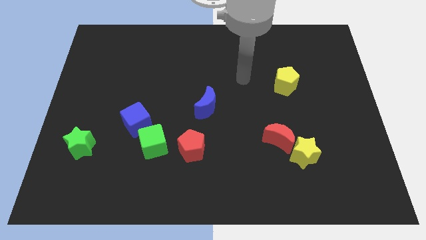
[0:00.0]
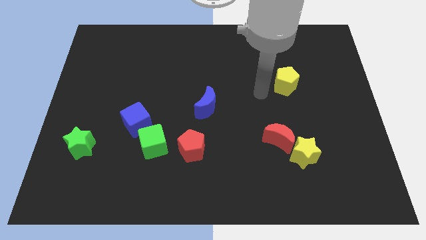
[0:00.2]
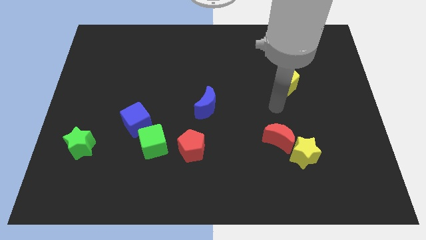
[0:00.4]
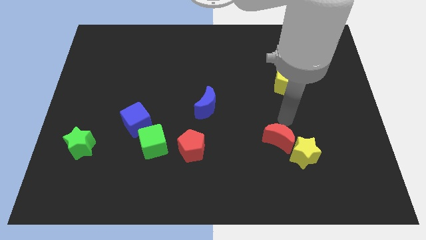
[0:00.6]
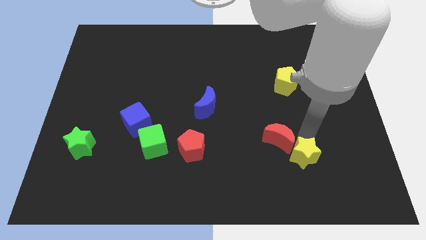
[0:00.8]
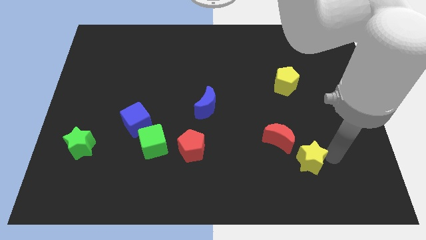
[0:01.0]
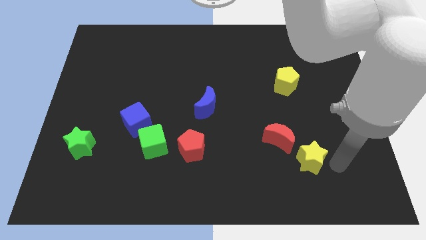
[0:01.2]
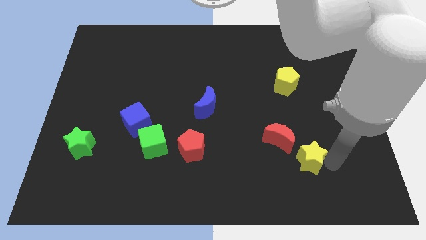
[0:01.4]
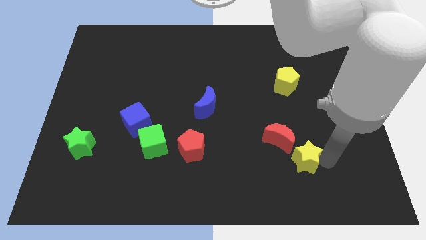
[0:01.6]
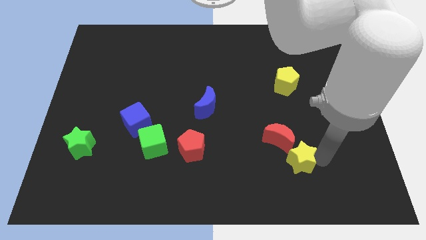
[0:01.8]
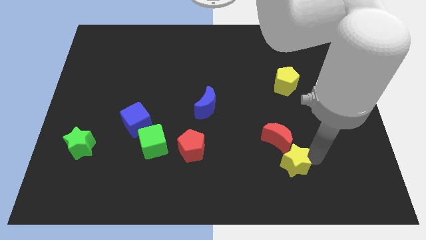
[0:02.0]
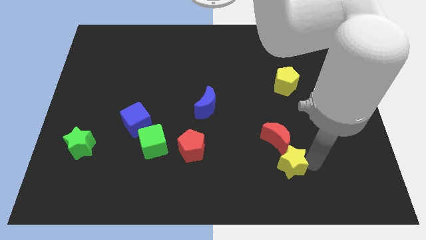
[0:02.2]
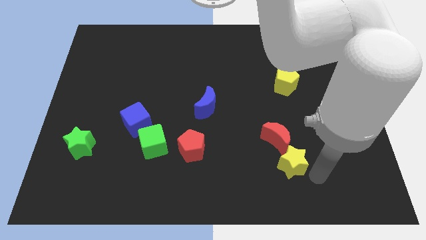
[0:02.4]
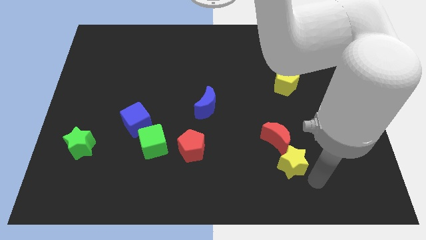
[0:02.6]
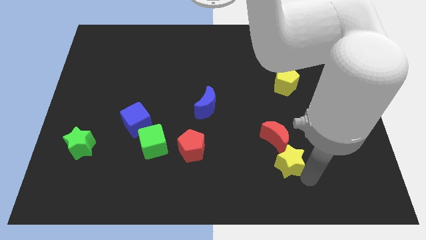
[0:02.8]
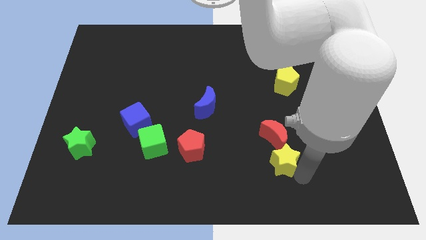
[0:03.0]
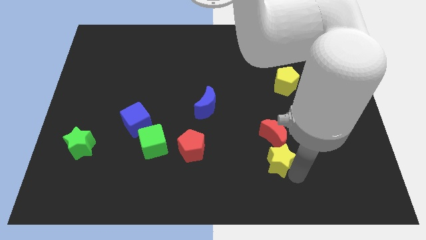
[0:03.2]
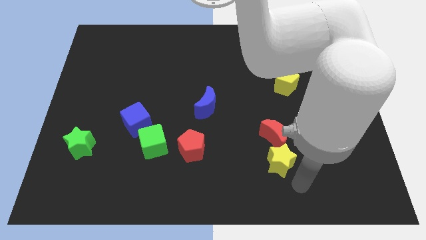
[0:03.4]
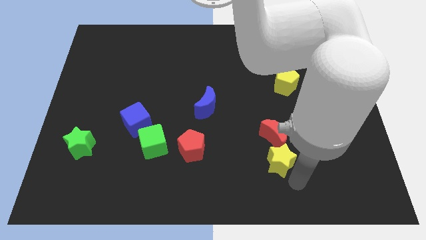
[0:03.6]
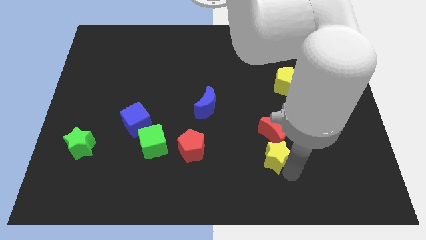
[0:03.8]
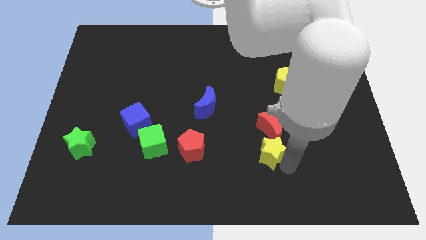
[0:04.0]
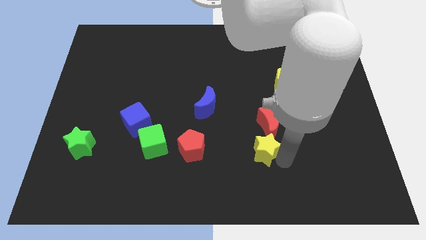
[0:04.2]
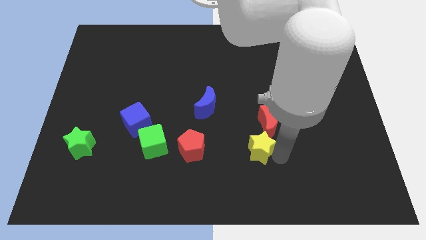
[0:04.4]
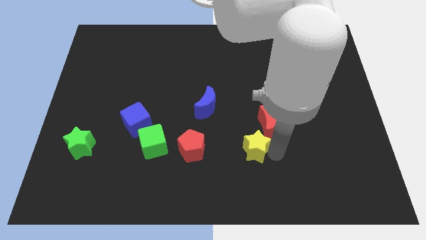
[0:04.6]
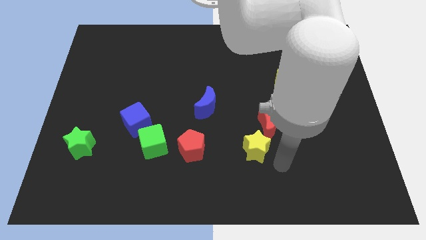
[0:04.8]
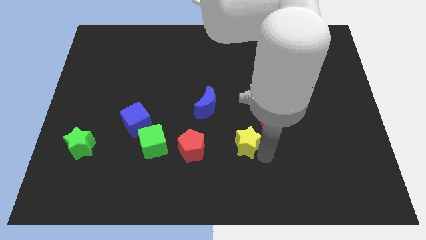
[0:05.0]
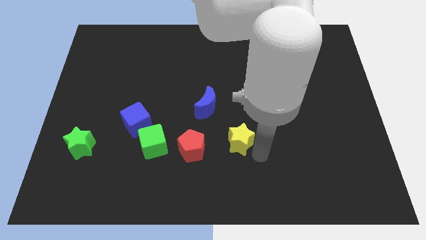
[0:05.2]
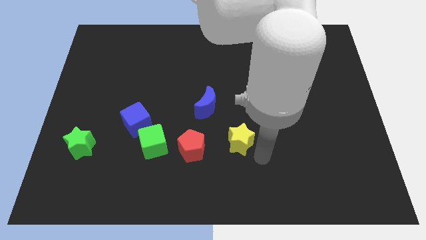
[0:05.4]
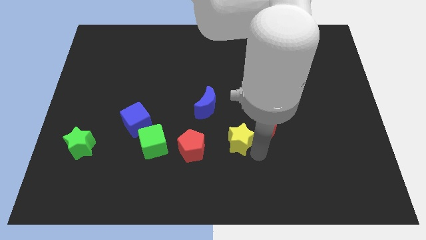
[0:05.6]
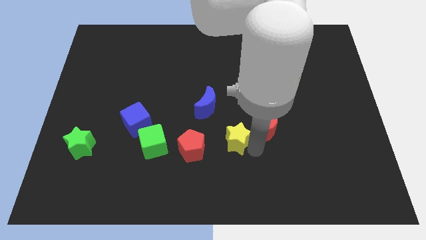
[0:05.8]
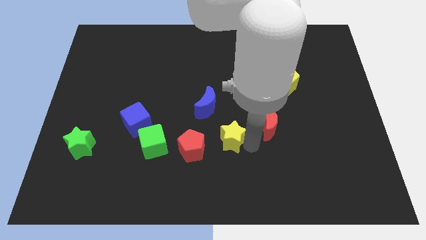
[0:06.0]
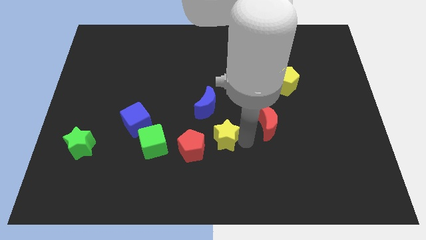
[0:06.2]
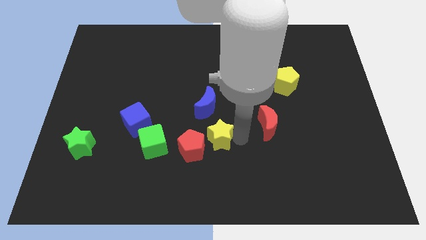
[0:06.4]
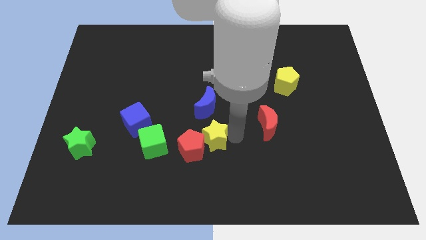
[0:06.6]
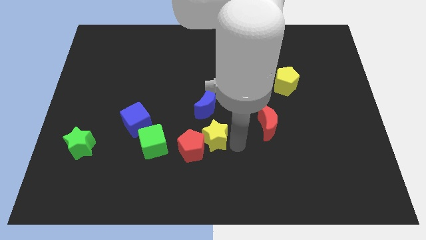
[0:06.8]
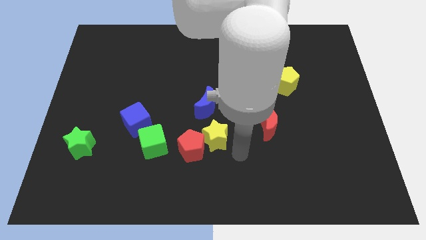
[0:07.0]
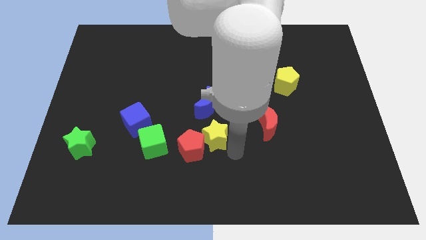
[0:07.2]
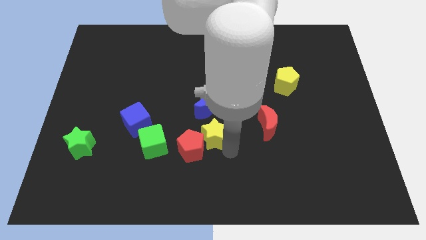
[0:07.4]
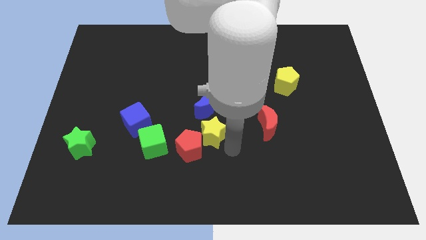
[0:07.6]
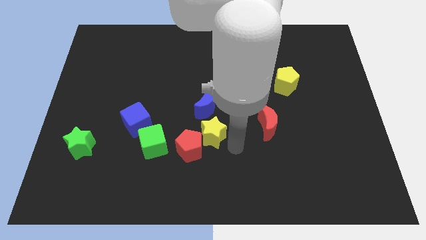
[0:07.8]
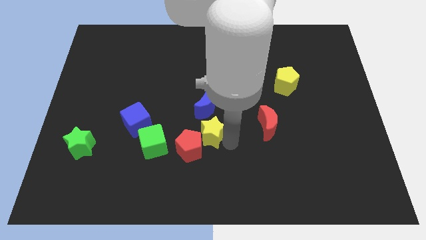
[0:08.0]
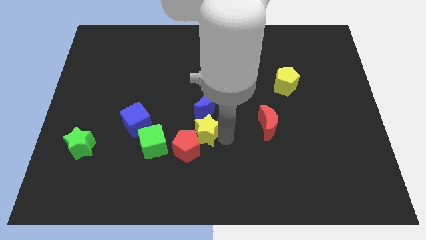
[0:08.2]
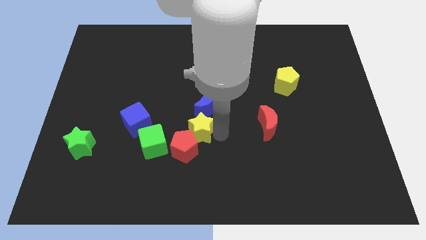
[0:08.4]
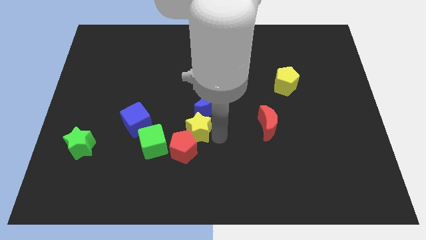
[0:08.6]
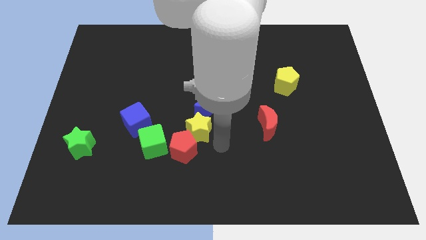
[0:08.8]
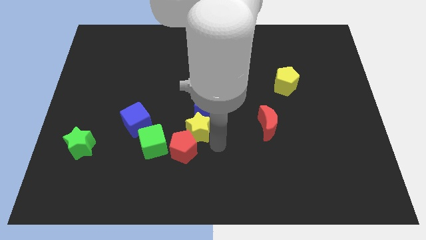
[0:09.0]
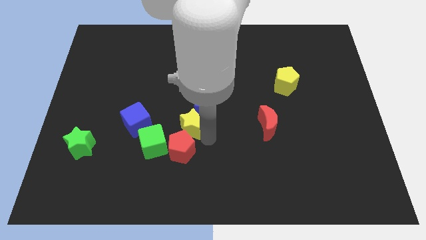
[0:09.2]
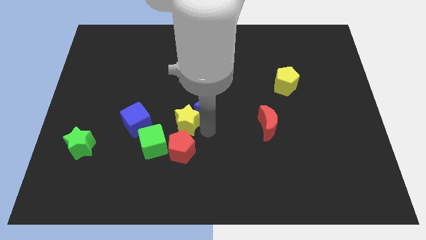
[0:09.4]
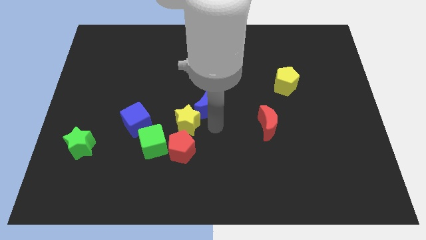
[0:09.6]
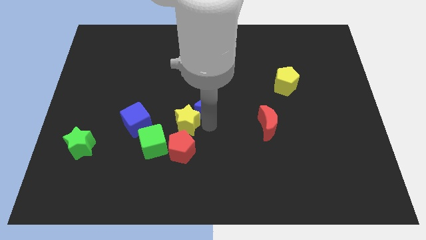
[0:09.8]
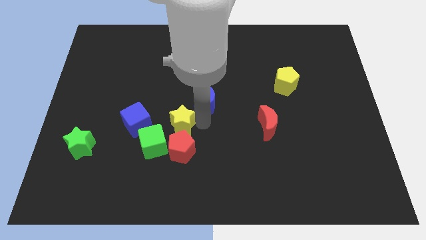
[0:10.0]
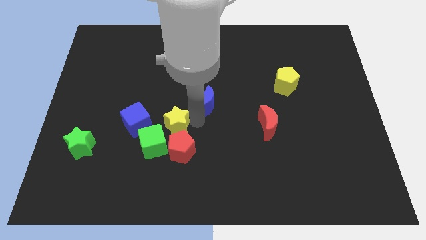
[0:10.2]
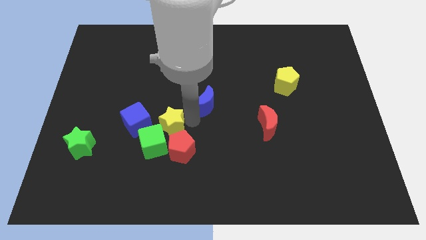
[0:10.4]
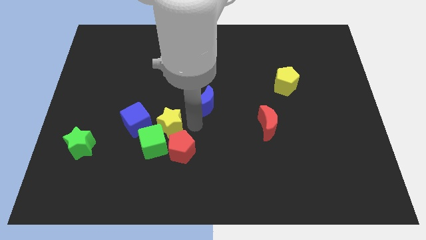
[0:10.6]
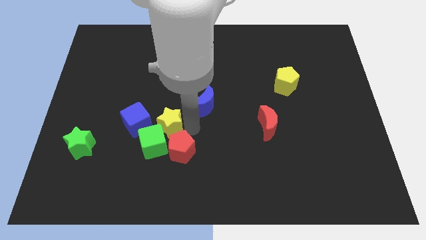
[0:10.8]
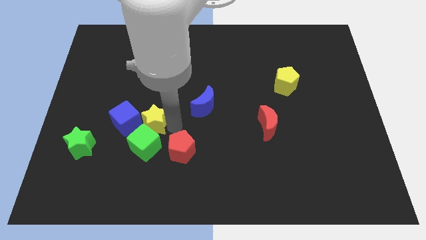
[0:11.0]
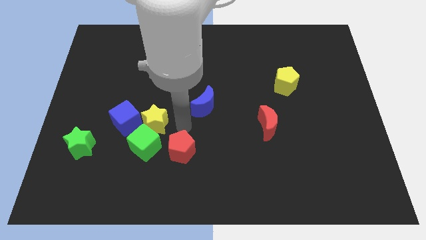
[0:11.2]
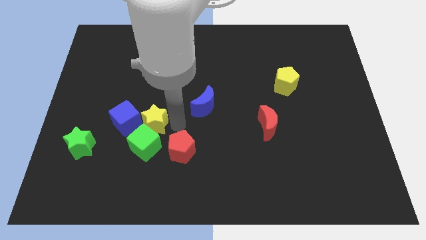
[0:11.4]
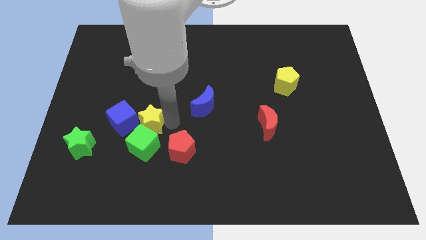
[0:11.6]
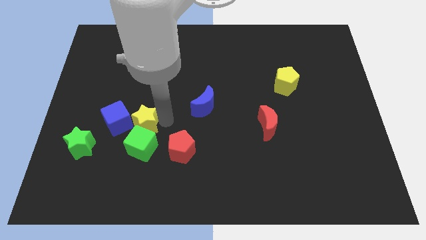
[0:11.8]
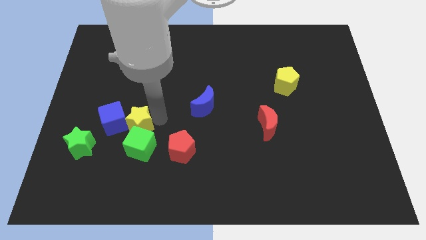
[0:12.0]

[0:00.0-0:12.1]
push the yellow star next to the blue cube
